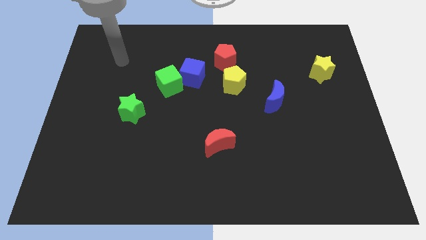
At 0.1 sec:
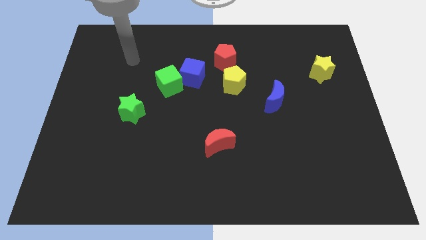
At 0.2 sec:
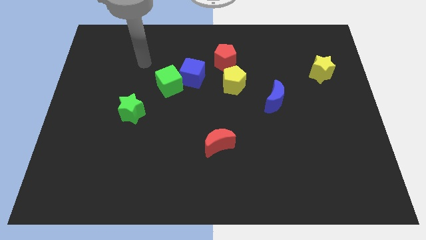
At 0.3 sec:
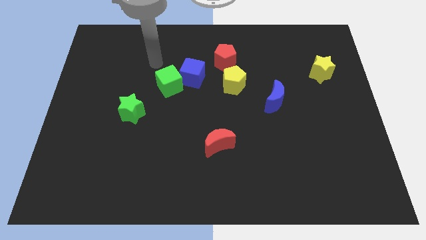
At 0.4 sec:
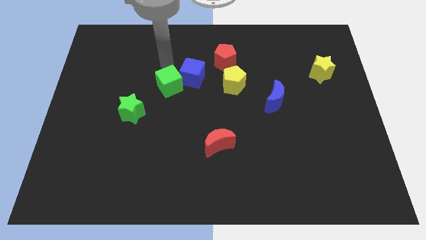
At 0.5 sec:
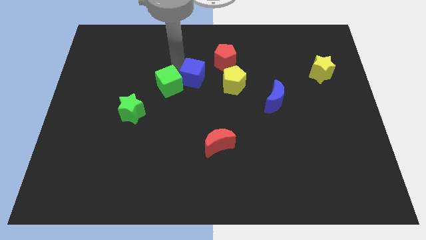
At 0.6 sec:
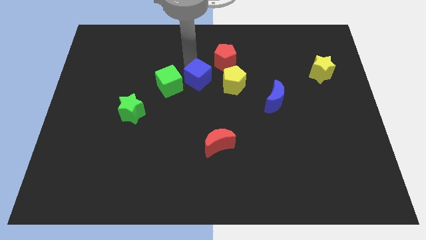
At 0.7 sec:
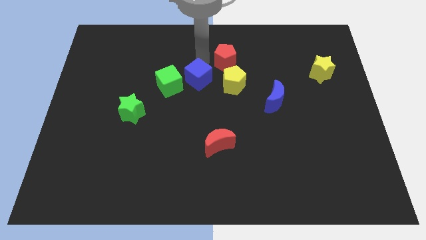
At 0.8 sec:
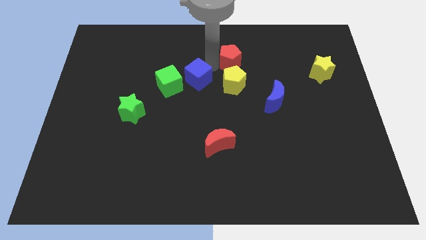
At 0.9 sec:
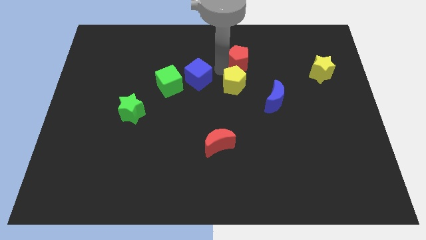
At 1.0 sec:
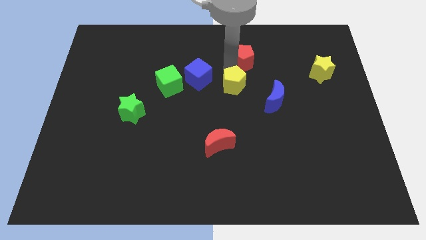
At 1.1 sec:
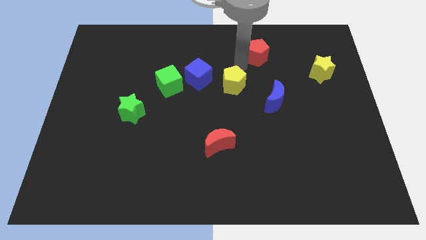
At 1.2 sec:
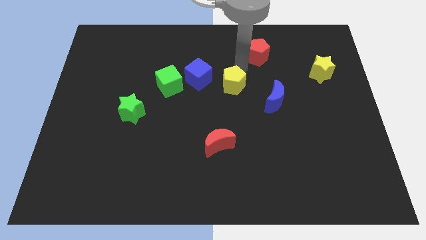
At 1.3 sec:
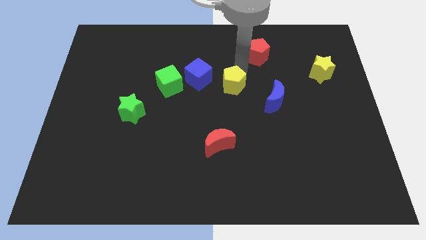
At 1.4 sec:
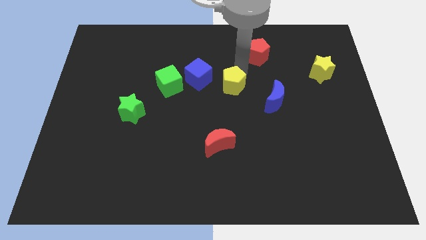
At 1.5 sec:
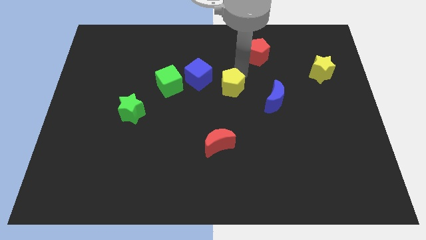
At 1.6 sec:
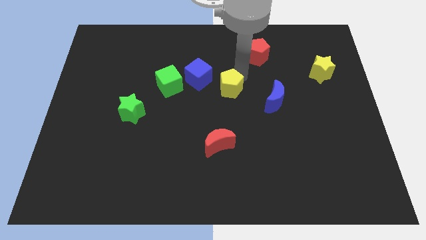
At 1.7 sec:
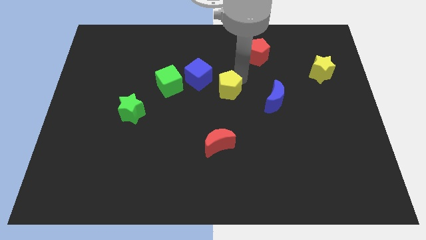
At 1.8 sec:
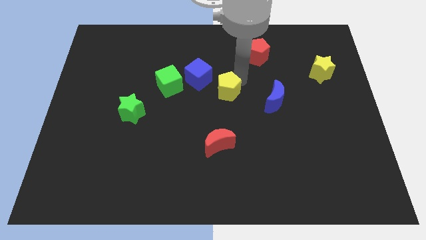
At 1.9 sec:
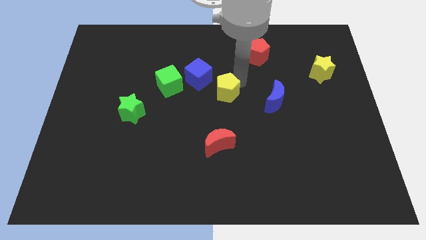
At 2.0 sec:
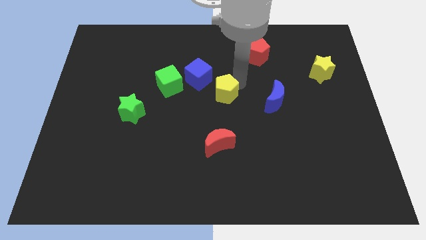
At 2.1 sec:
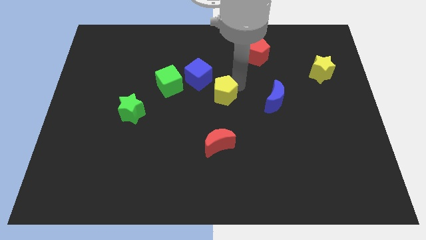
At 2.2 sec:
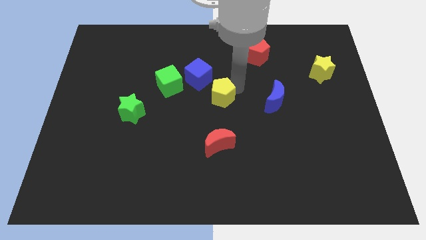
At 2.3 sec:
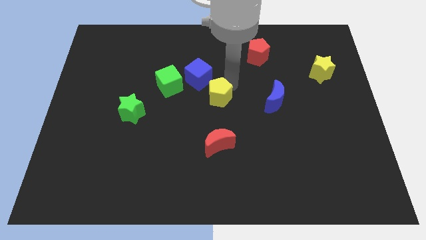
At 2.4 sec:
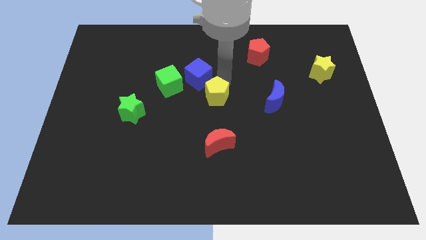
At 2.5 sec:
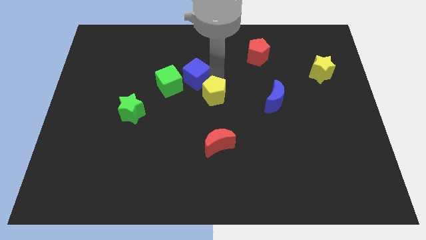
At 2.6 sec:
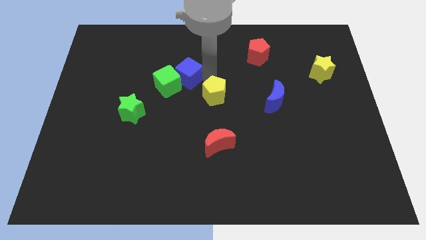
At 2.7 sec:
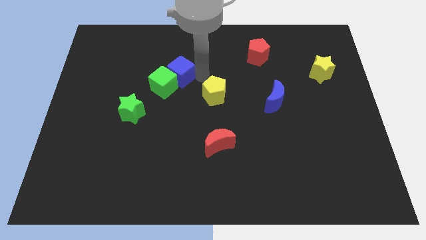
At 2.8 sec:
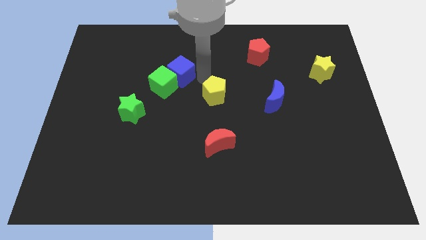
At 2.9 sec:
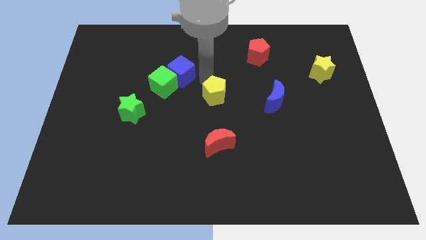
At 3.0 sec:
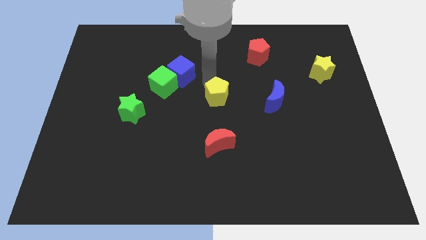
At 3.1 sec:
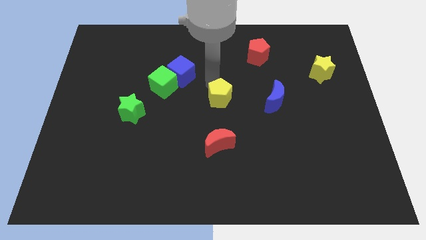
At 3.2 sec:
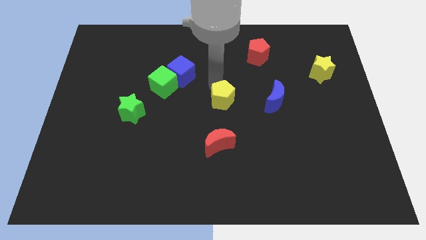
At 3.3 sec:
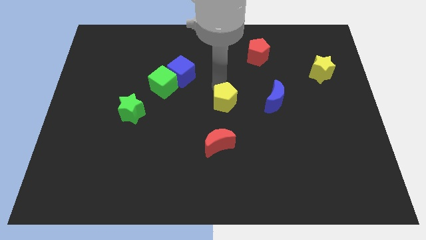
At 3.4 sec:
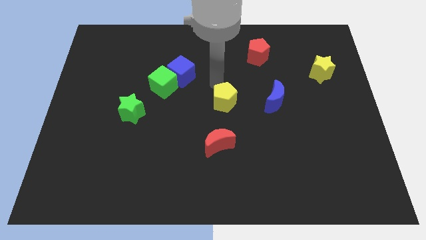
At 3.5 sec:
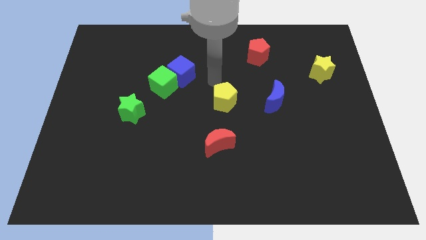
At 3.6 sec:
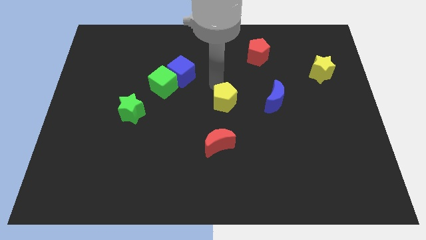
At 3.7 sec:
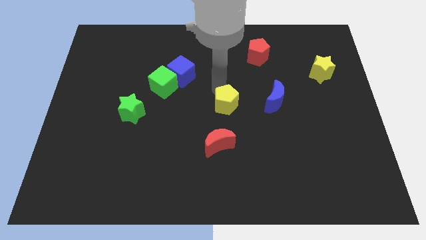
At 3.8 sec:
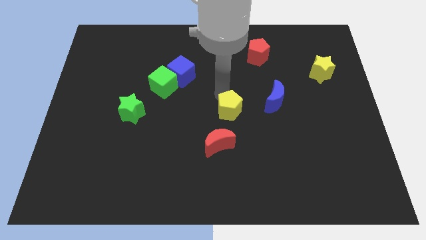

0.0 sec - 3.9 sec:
slide the yellow pentagon down a little

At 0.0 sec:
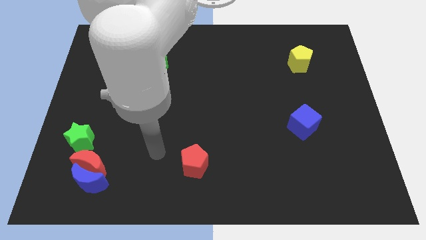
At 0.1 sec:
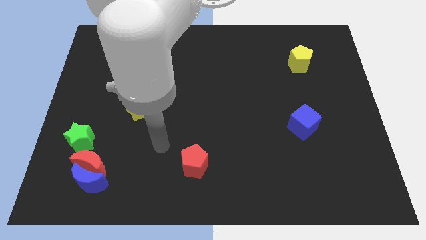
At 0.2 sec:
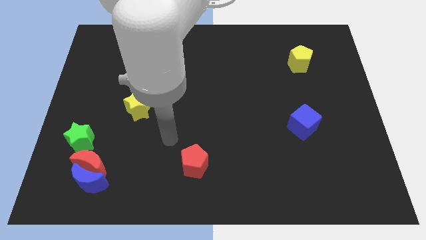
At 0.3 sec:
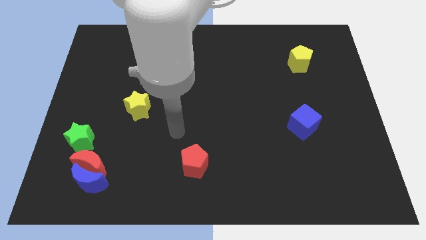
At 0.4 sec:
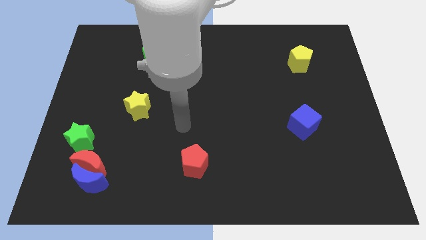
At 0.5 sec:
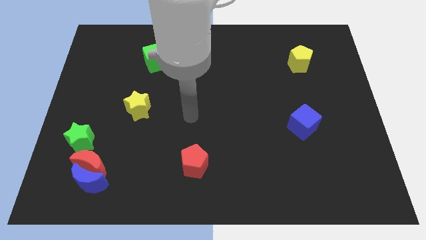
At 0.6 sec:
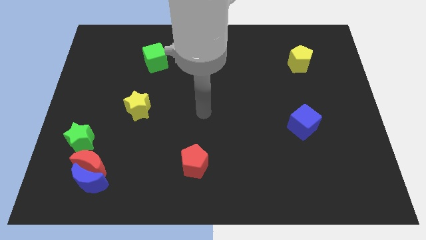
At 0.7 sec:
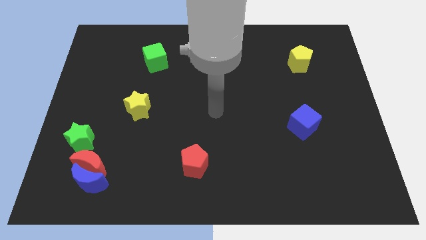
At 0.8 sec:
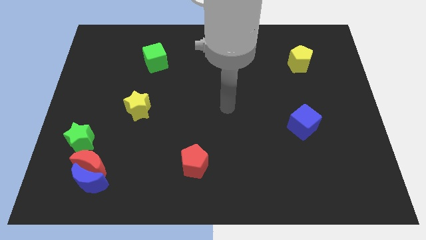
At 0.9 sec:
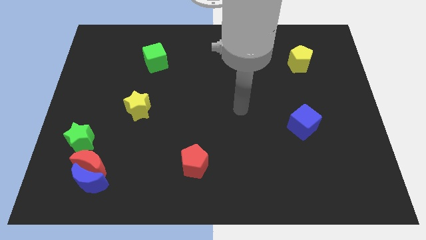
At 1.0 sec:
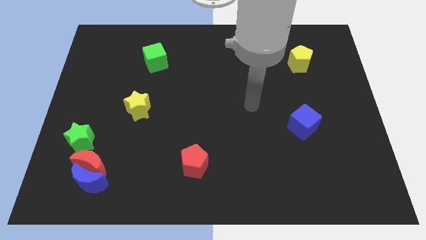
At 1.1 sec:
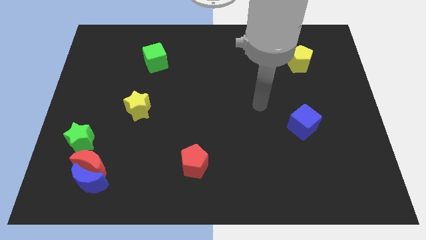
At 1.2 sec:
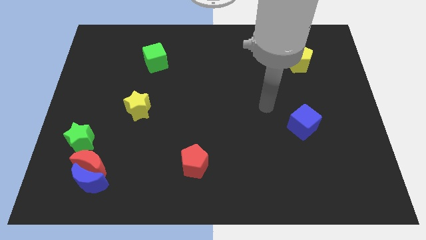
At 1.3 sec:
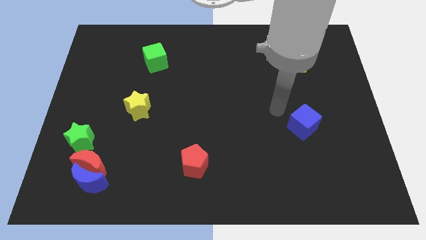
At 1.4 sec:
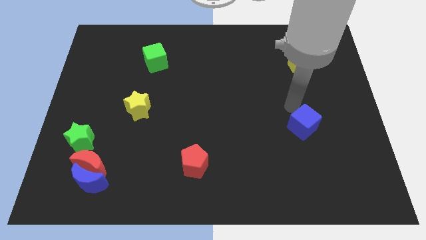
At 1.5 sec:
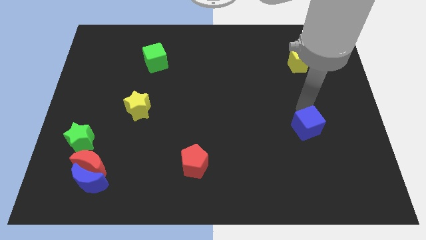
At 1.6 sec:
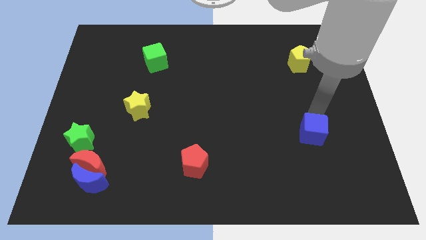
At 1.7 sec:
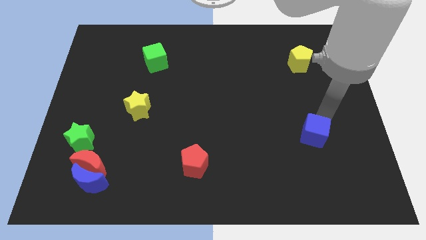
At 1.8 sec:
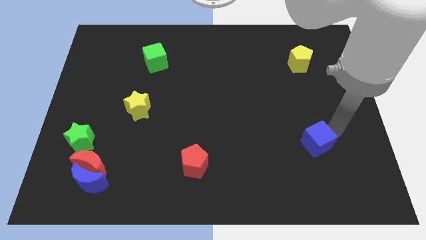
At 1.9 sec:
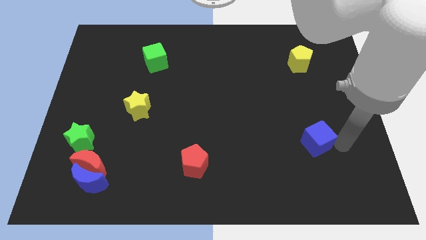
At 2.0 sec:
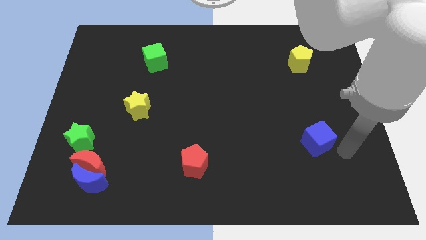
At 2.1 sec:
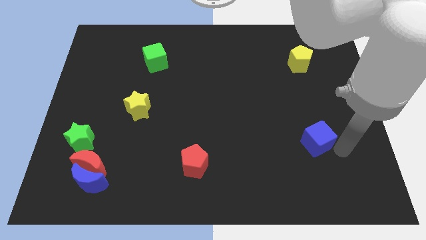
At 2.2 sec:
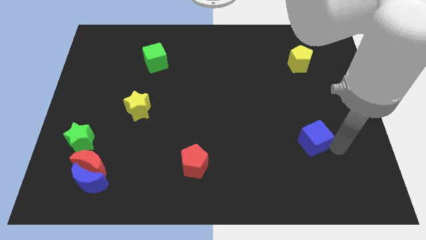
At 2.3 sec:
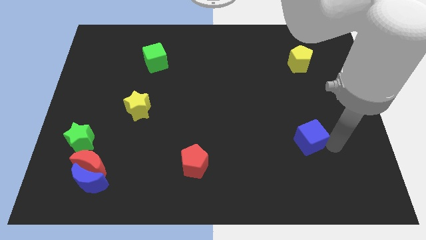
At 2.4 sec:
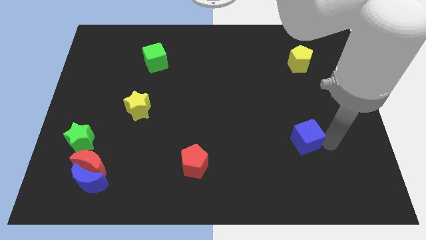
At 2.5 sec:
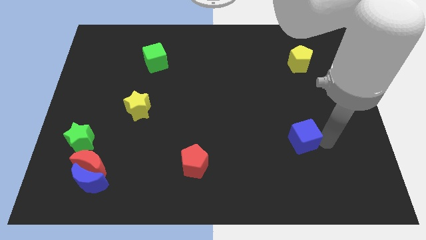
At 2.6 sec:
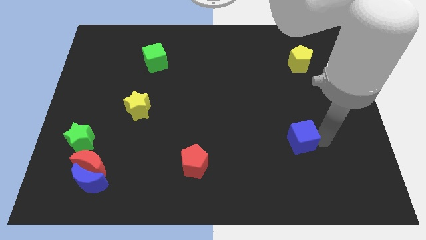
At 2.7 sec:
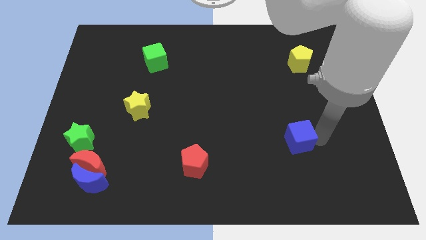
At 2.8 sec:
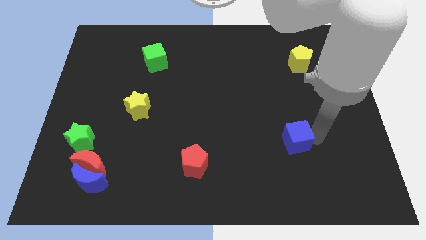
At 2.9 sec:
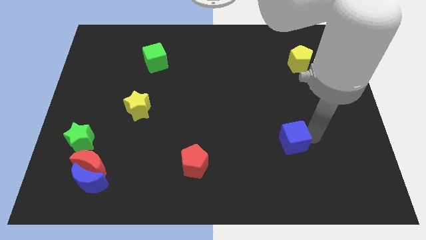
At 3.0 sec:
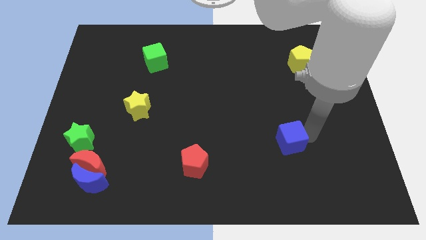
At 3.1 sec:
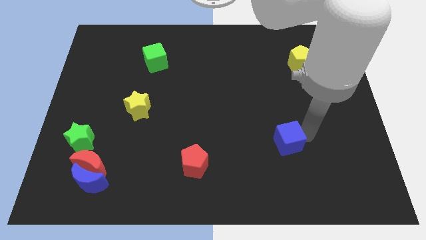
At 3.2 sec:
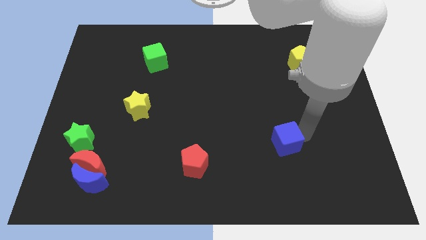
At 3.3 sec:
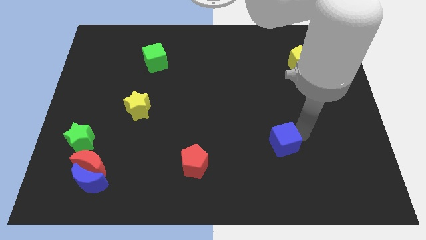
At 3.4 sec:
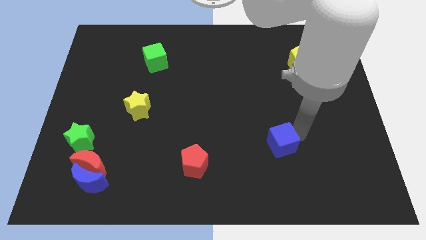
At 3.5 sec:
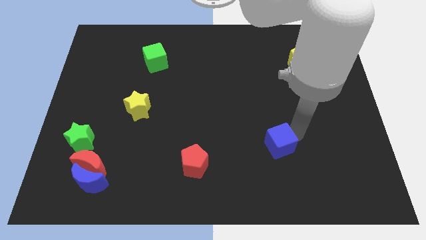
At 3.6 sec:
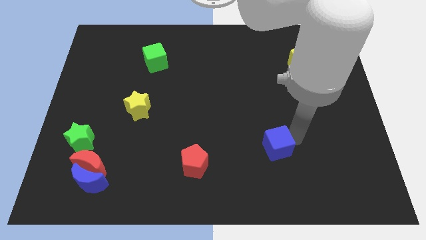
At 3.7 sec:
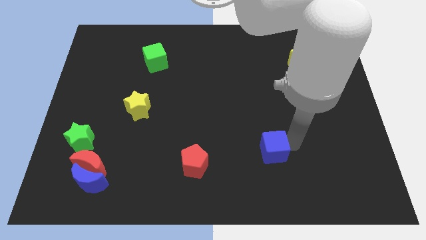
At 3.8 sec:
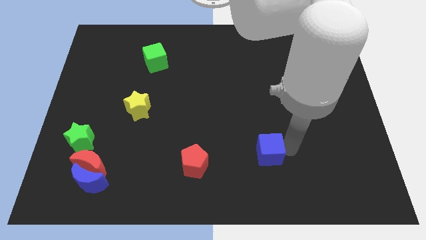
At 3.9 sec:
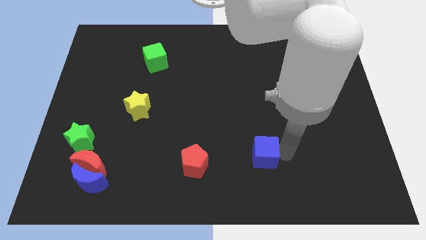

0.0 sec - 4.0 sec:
slide the blue cube left somewhat
